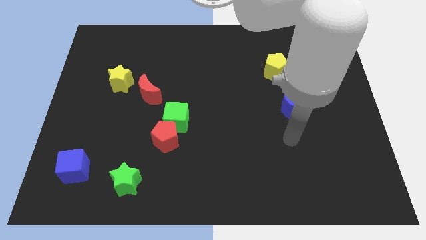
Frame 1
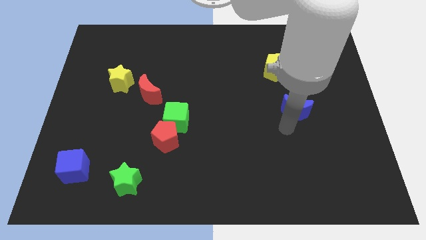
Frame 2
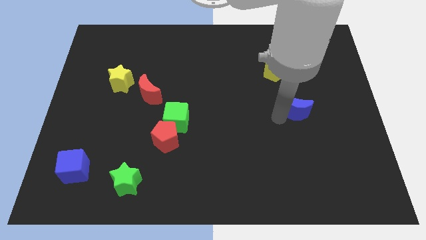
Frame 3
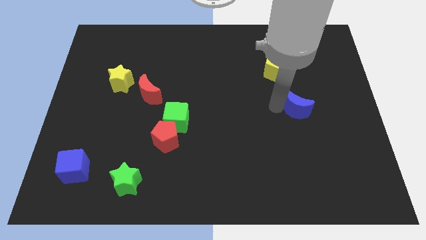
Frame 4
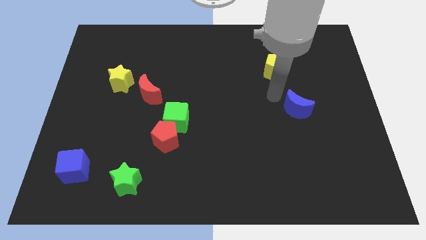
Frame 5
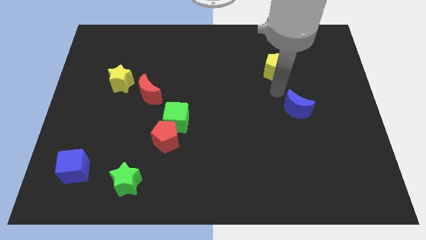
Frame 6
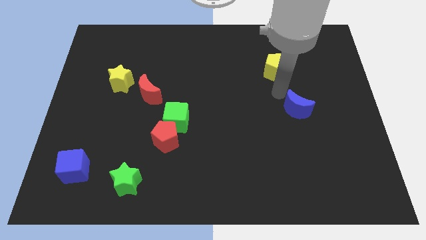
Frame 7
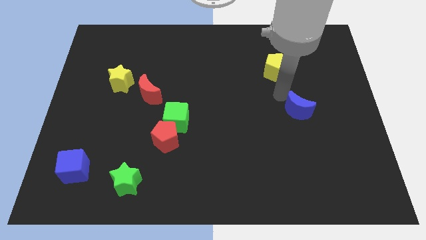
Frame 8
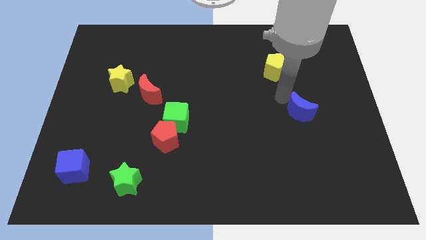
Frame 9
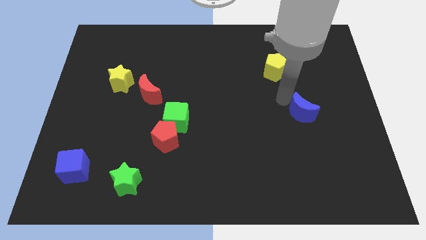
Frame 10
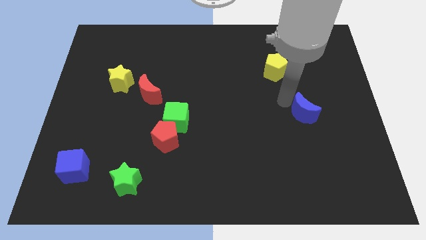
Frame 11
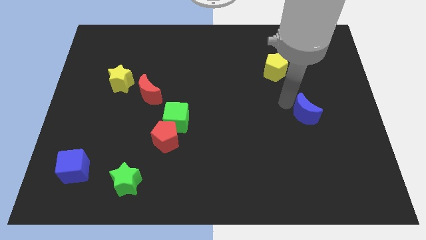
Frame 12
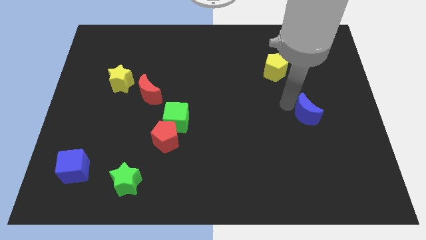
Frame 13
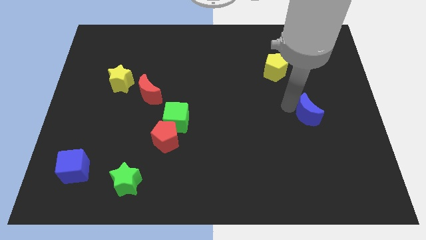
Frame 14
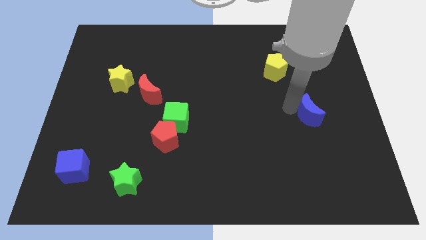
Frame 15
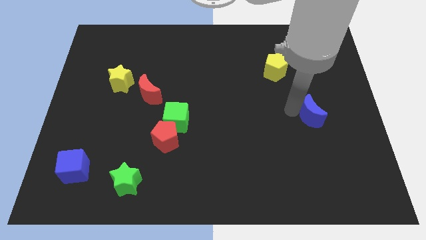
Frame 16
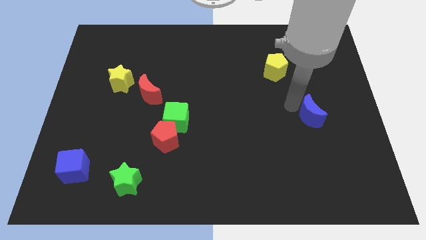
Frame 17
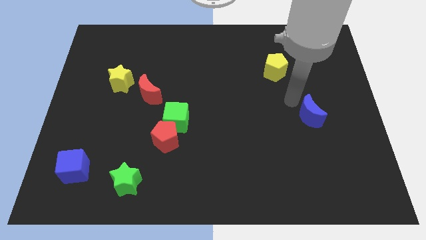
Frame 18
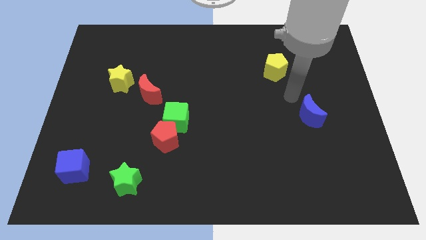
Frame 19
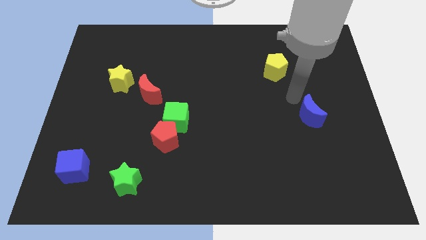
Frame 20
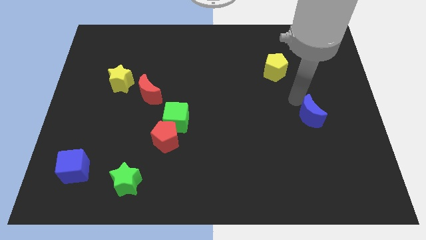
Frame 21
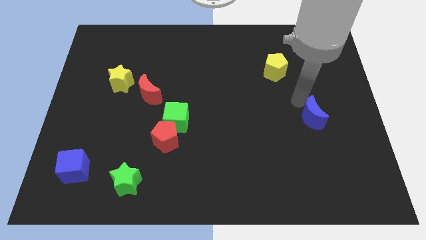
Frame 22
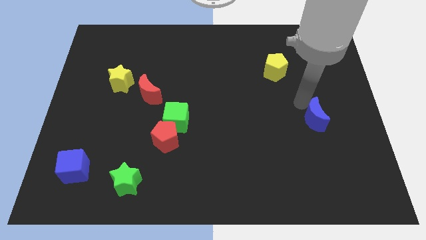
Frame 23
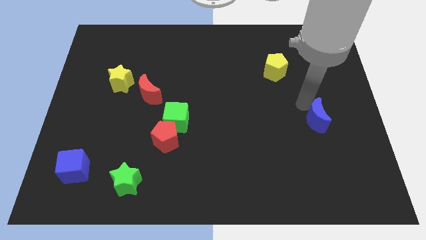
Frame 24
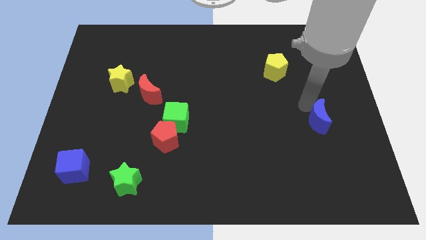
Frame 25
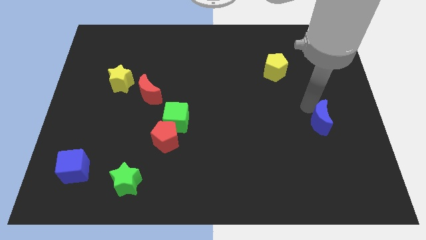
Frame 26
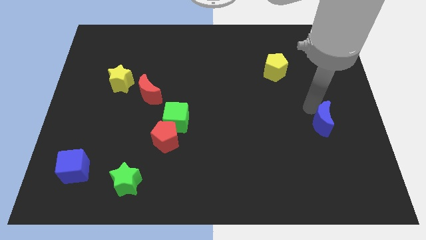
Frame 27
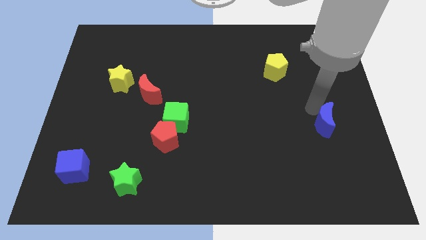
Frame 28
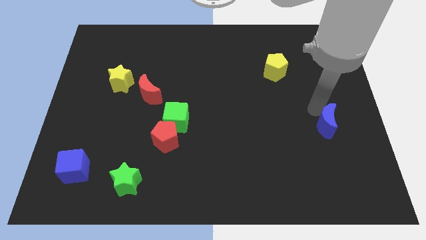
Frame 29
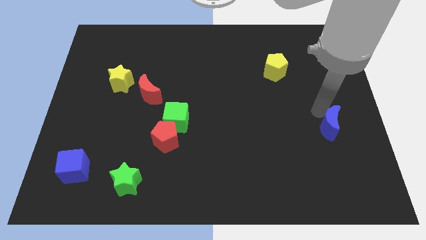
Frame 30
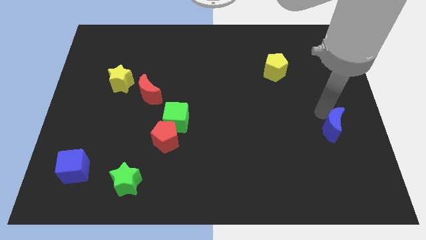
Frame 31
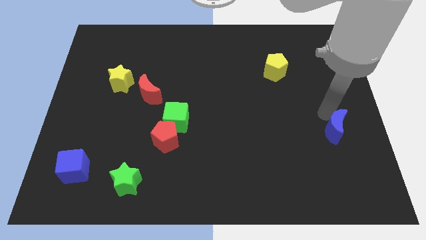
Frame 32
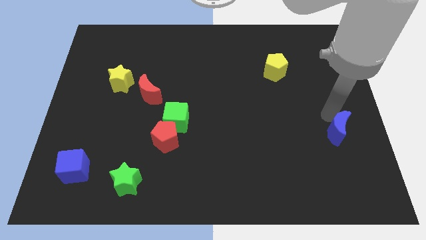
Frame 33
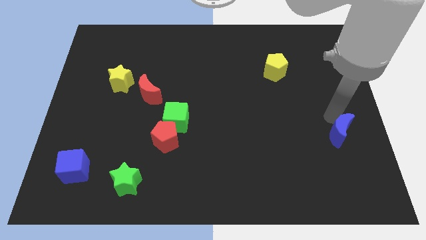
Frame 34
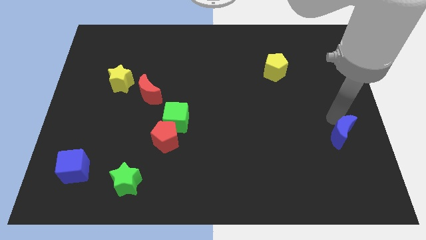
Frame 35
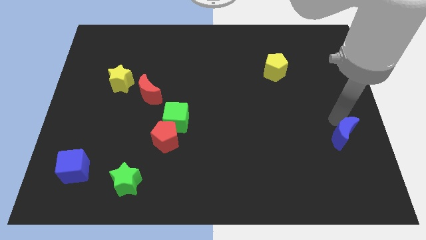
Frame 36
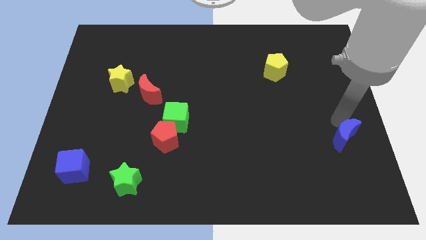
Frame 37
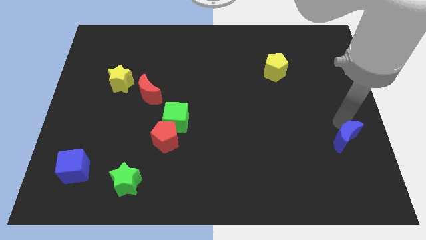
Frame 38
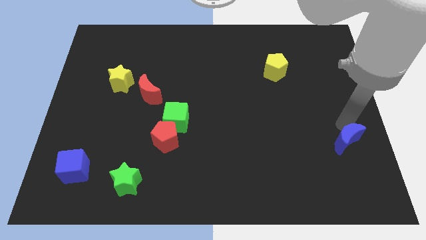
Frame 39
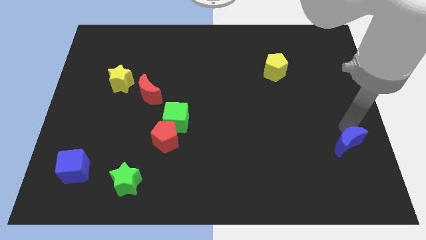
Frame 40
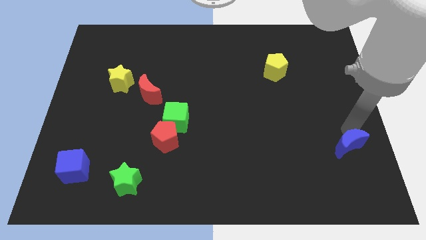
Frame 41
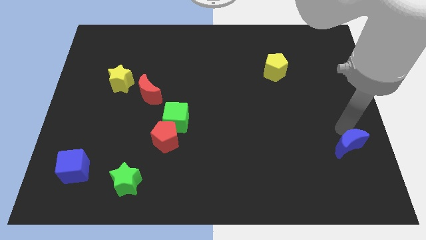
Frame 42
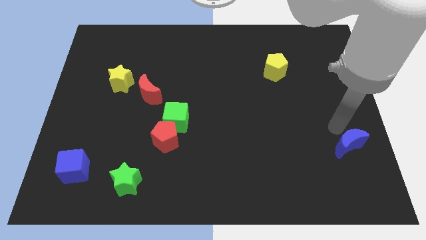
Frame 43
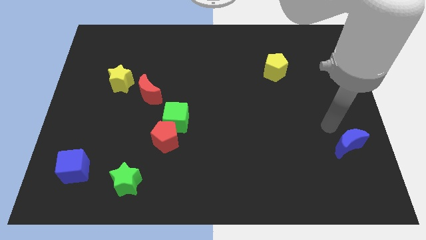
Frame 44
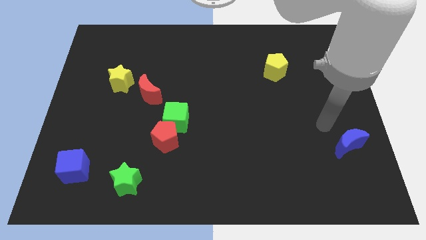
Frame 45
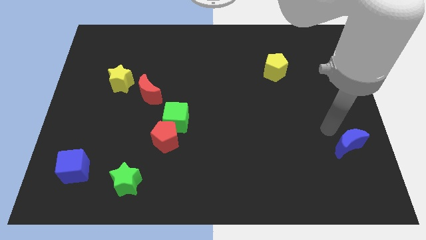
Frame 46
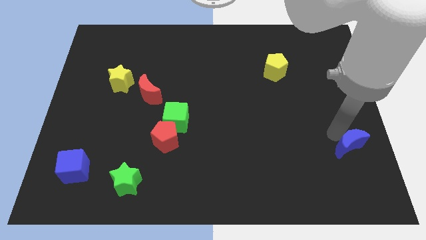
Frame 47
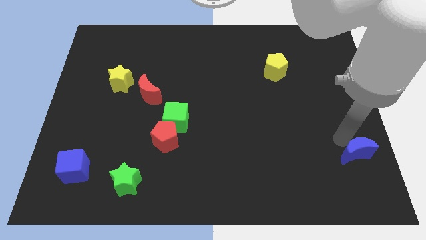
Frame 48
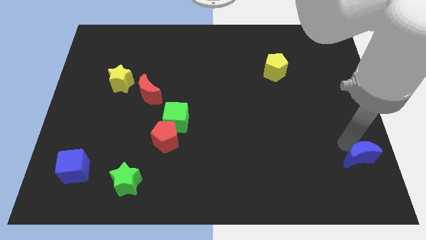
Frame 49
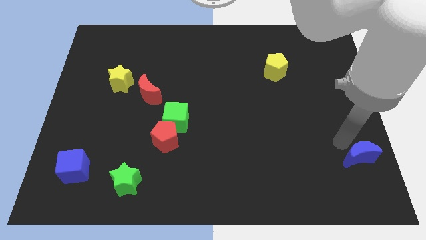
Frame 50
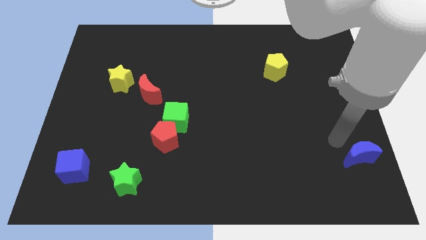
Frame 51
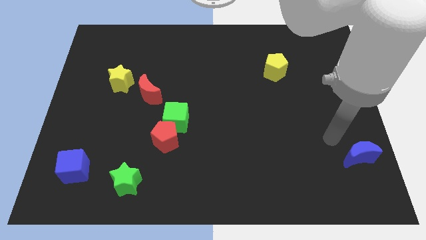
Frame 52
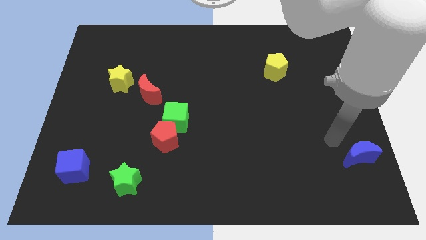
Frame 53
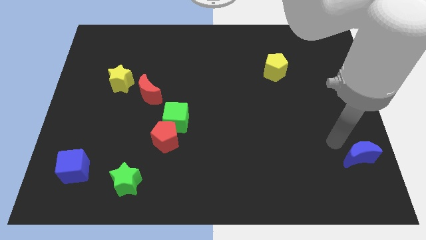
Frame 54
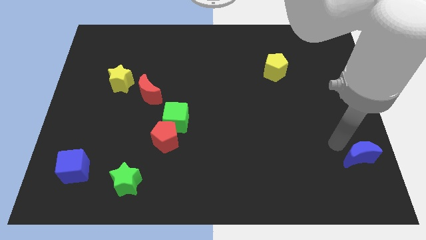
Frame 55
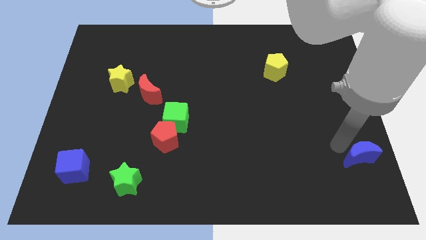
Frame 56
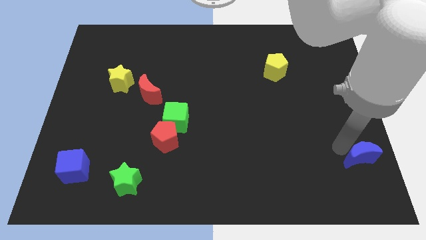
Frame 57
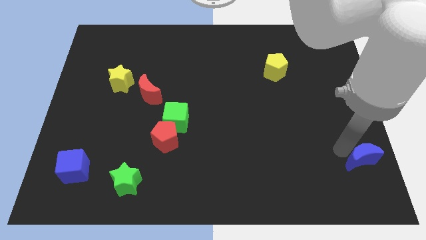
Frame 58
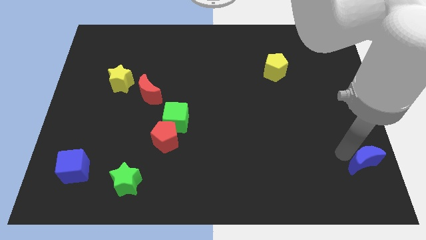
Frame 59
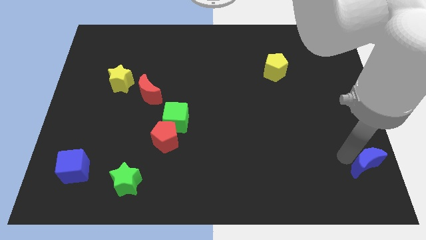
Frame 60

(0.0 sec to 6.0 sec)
move the blue moon to the lower right corner
